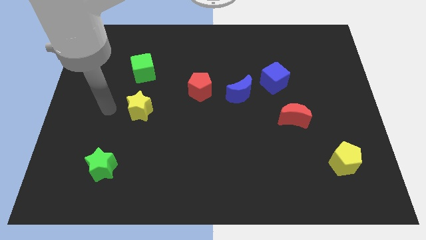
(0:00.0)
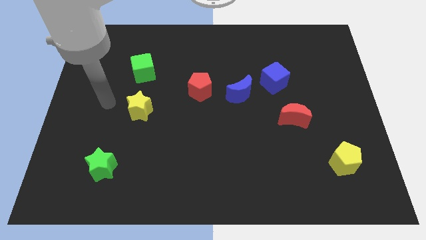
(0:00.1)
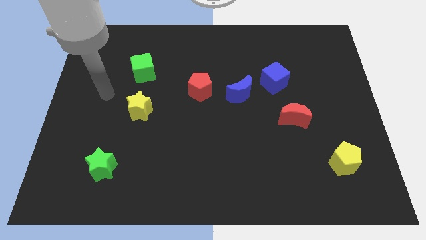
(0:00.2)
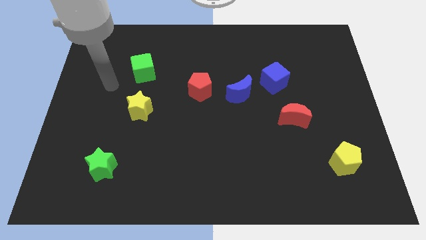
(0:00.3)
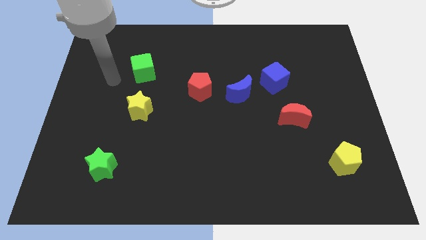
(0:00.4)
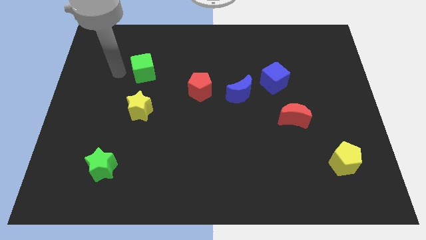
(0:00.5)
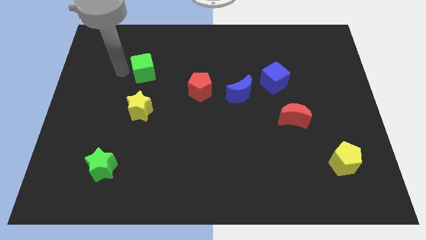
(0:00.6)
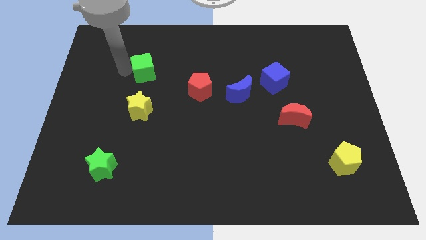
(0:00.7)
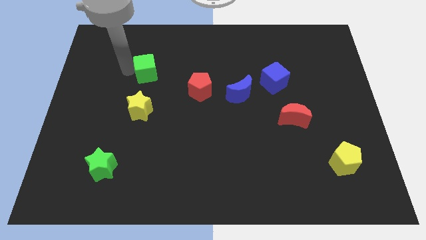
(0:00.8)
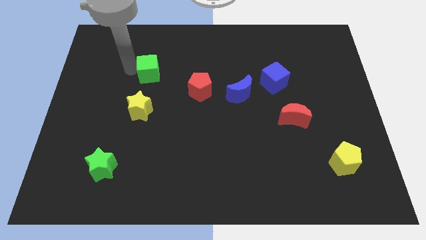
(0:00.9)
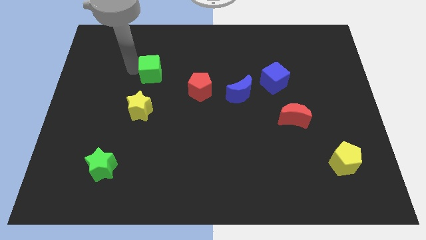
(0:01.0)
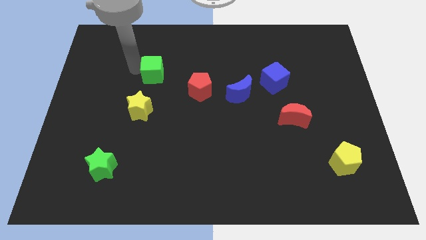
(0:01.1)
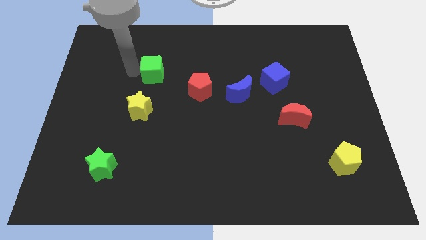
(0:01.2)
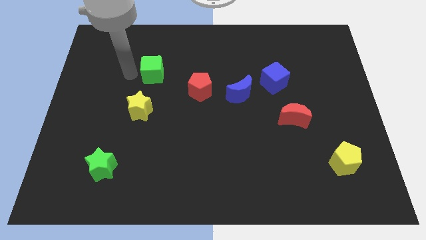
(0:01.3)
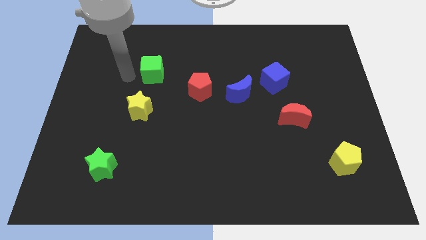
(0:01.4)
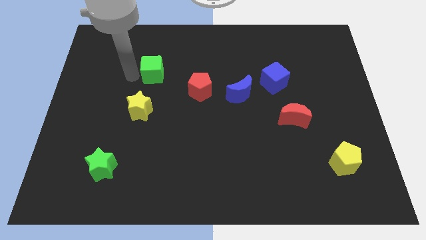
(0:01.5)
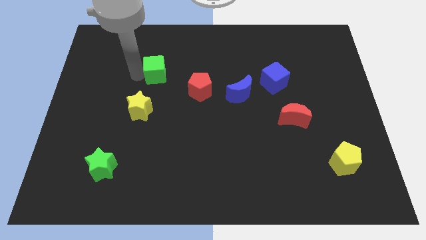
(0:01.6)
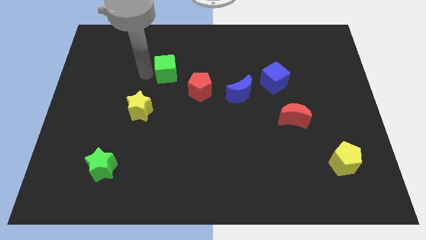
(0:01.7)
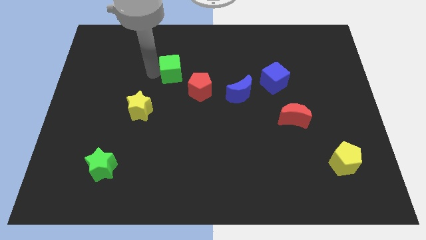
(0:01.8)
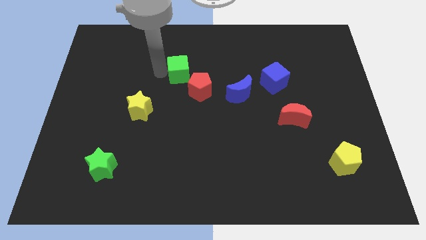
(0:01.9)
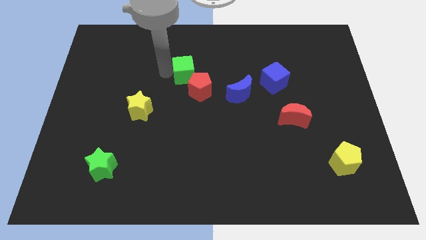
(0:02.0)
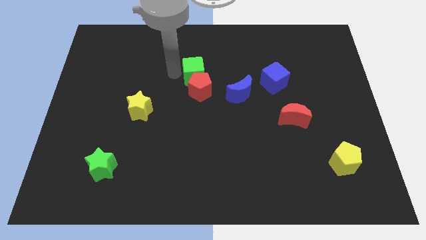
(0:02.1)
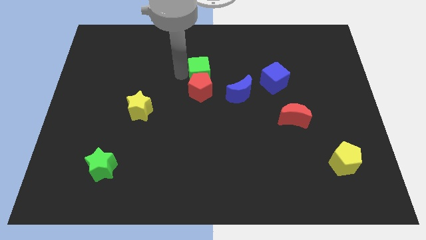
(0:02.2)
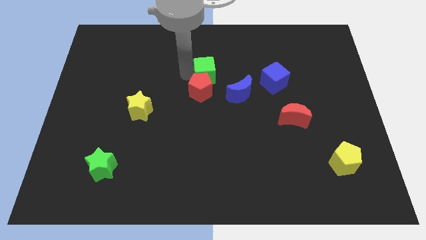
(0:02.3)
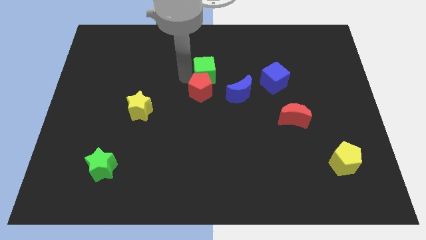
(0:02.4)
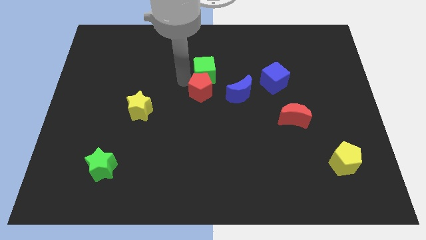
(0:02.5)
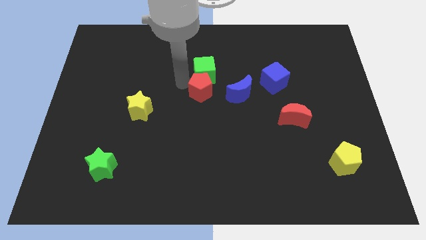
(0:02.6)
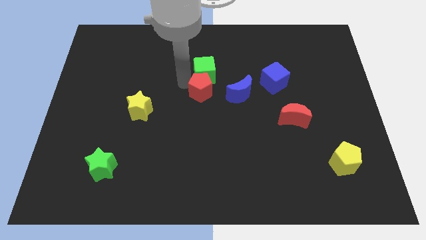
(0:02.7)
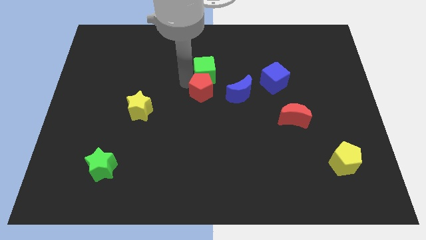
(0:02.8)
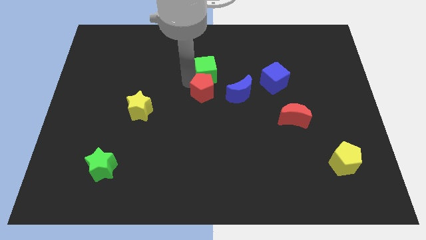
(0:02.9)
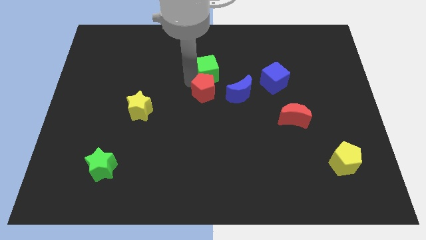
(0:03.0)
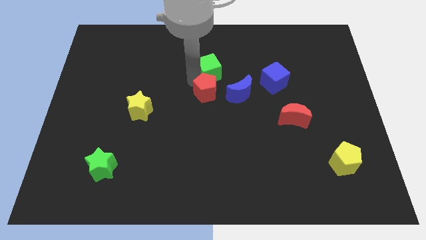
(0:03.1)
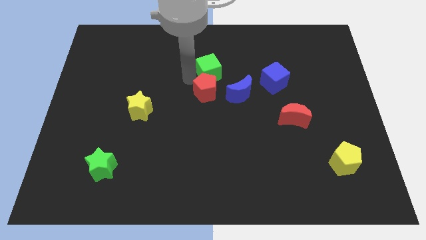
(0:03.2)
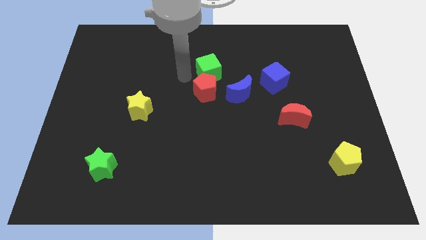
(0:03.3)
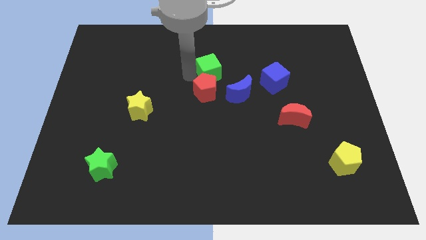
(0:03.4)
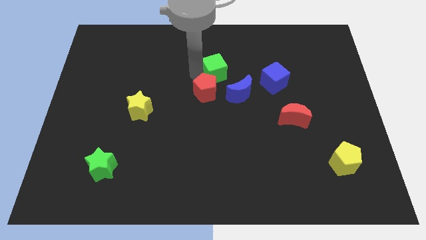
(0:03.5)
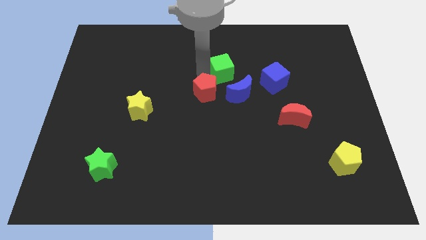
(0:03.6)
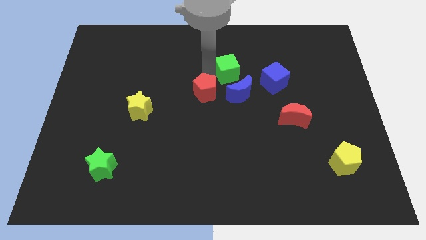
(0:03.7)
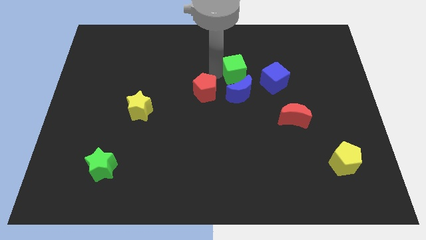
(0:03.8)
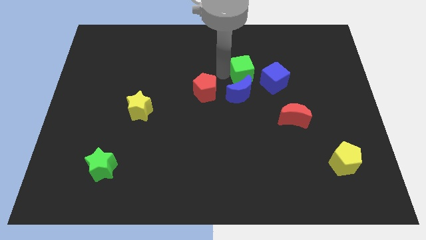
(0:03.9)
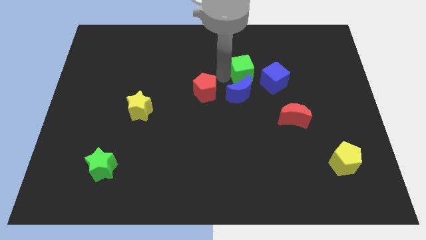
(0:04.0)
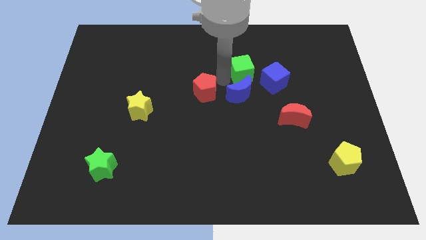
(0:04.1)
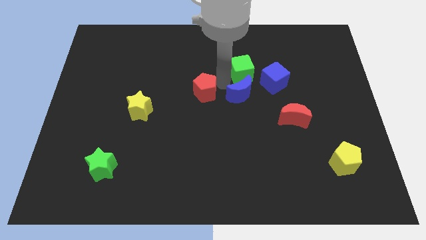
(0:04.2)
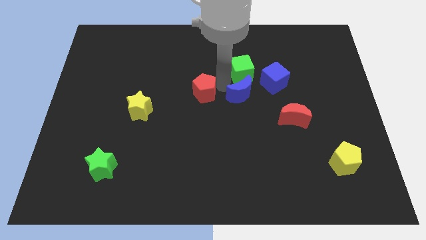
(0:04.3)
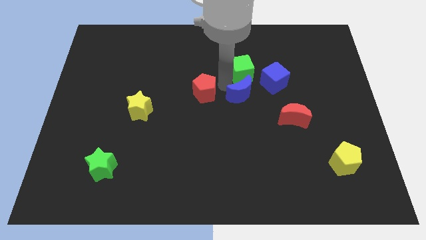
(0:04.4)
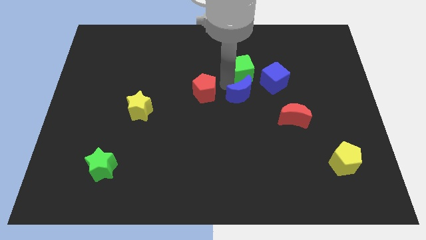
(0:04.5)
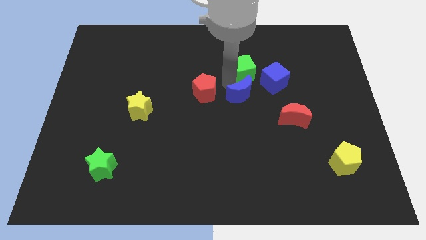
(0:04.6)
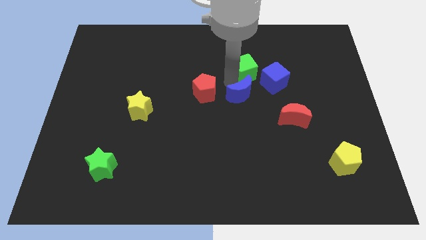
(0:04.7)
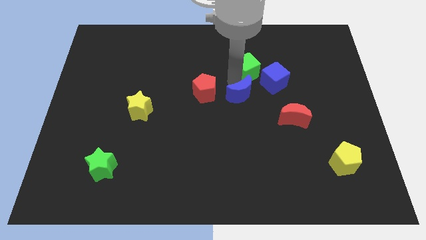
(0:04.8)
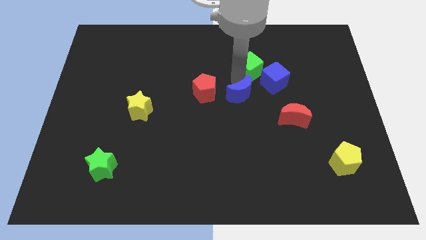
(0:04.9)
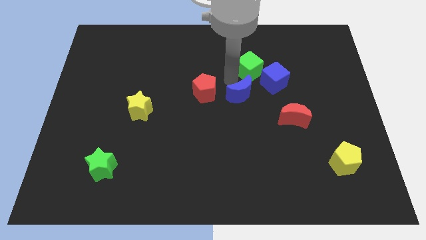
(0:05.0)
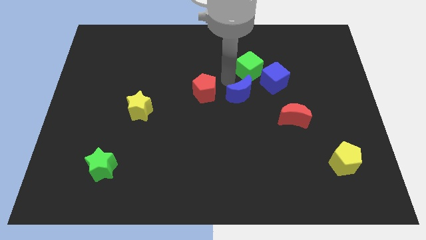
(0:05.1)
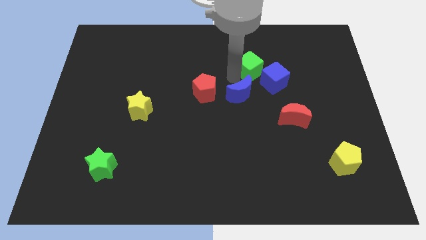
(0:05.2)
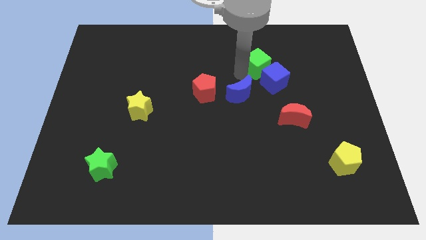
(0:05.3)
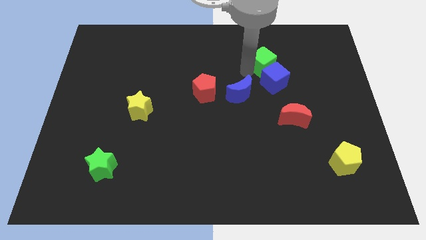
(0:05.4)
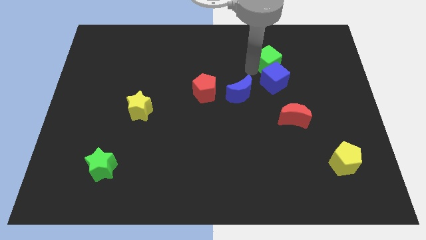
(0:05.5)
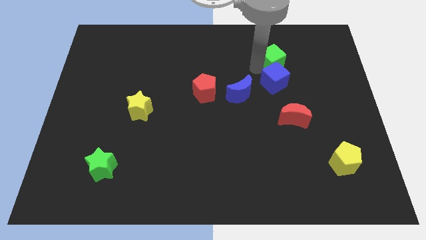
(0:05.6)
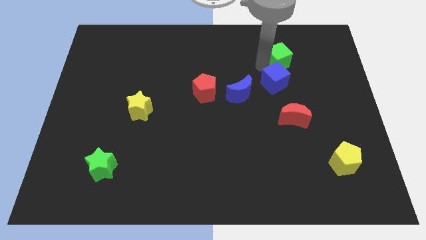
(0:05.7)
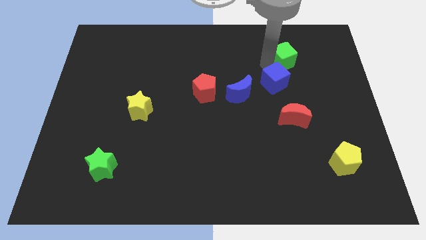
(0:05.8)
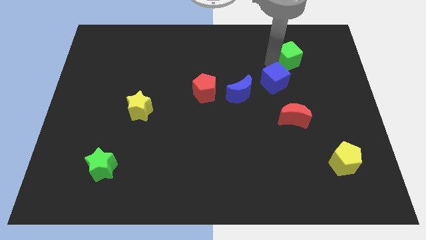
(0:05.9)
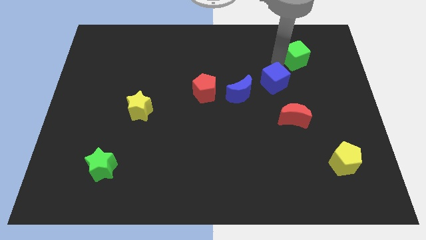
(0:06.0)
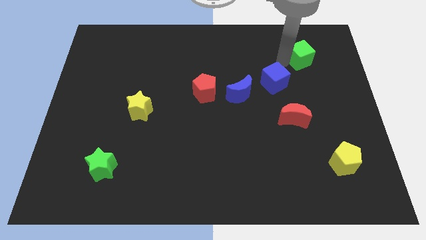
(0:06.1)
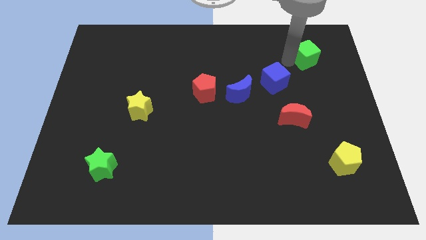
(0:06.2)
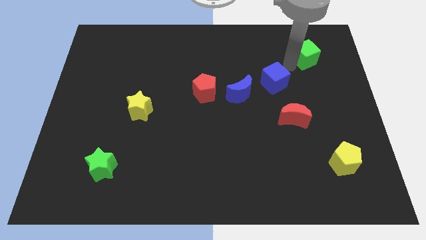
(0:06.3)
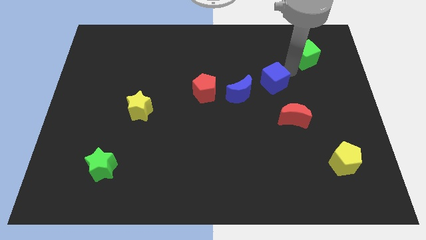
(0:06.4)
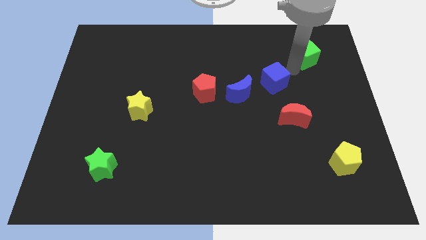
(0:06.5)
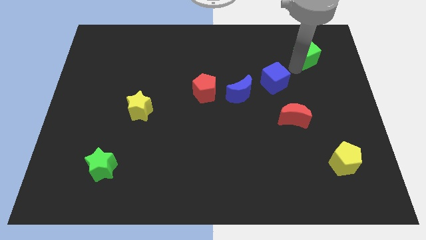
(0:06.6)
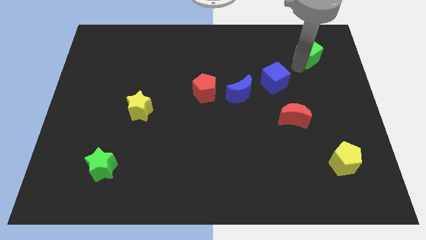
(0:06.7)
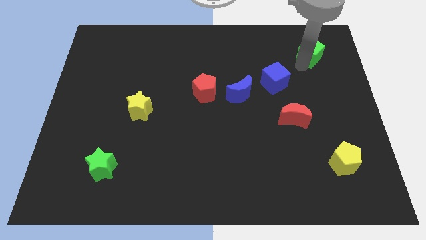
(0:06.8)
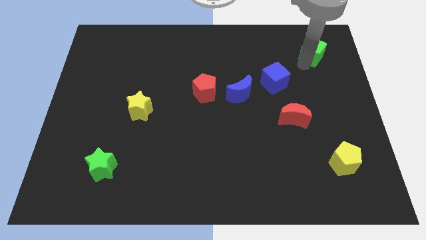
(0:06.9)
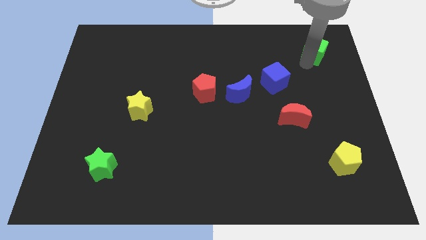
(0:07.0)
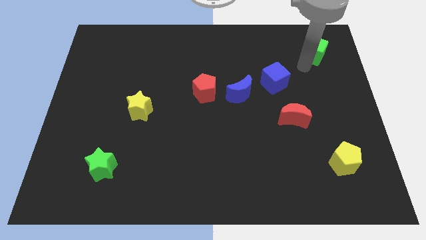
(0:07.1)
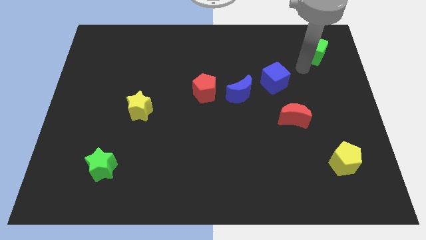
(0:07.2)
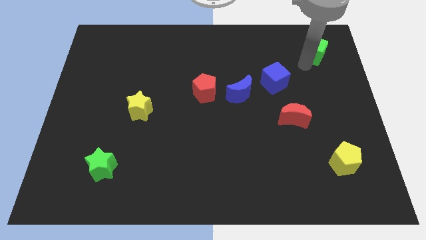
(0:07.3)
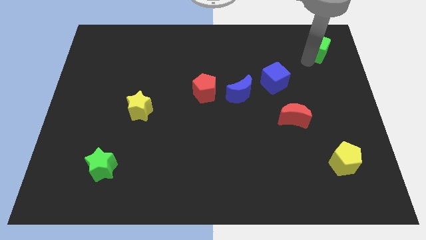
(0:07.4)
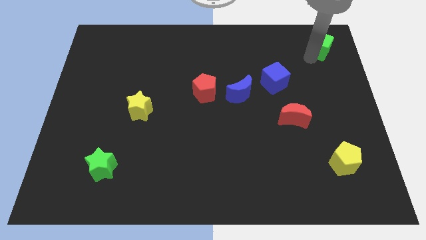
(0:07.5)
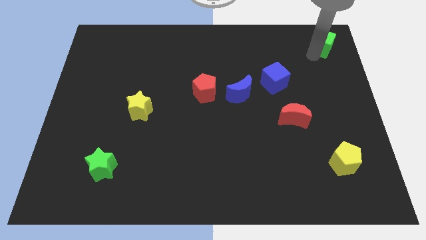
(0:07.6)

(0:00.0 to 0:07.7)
move the green cube to the top right corner
